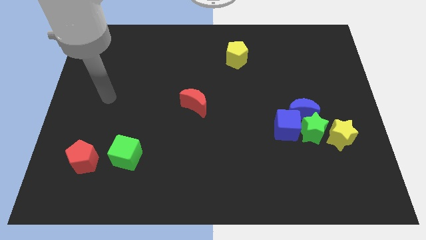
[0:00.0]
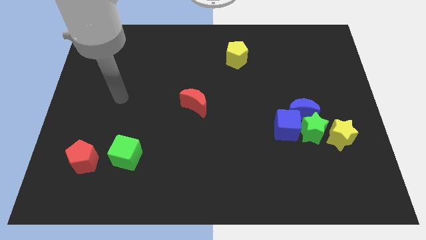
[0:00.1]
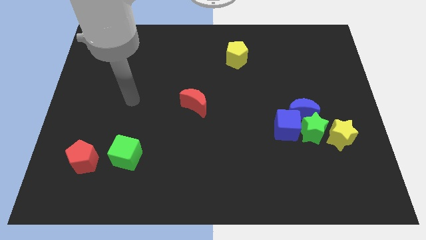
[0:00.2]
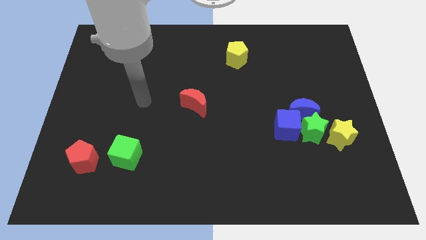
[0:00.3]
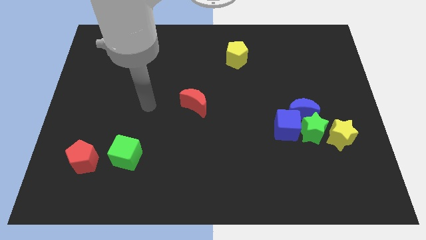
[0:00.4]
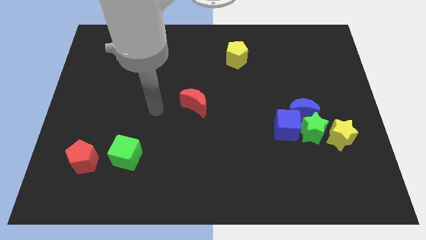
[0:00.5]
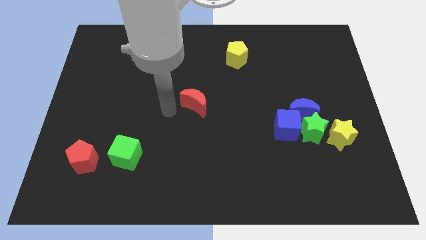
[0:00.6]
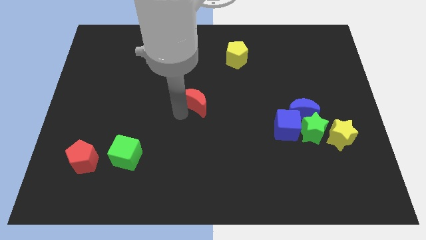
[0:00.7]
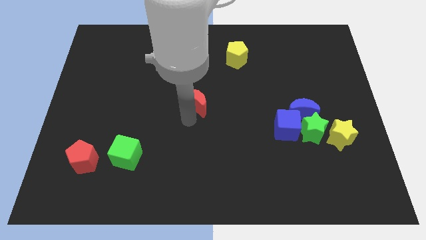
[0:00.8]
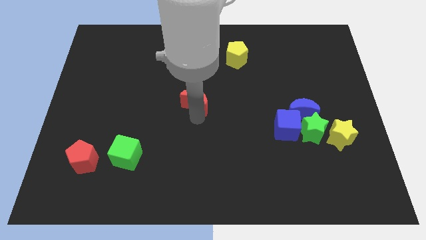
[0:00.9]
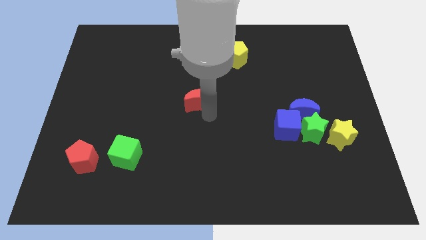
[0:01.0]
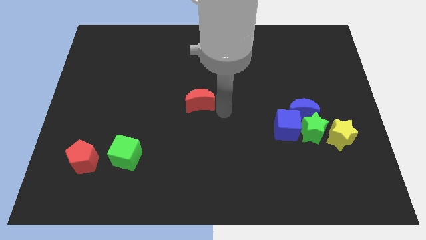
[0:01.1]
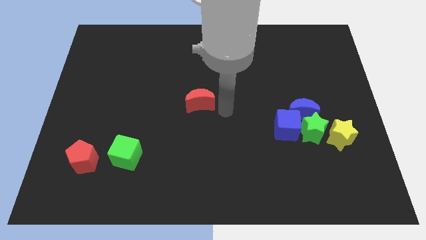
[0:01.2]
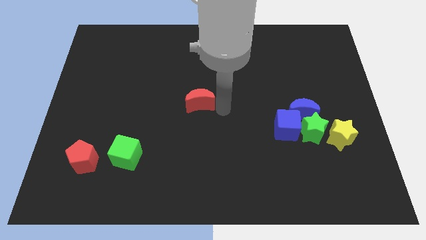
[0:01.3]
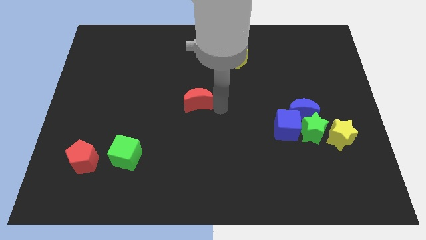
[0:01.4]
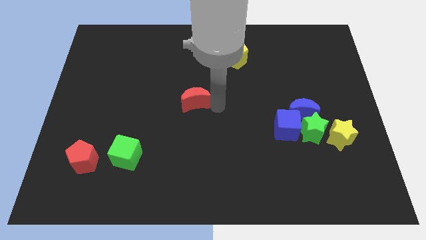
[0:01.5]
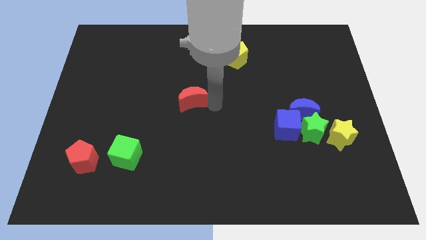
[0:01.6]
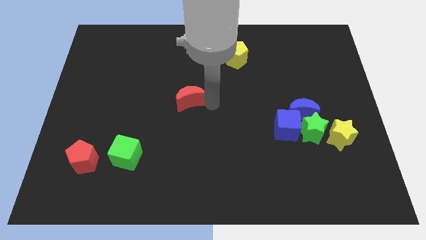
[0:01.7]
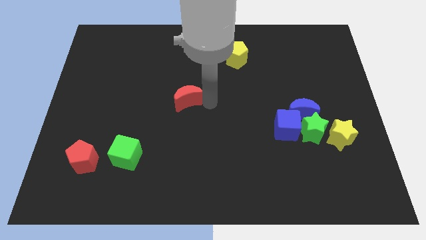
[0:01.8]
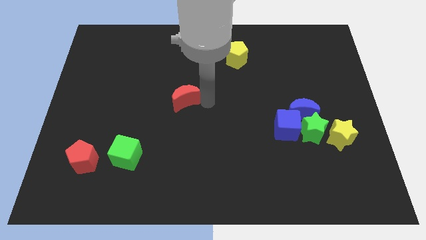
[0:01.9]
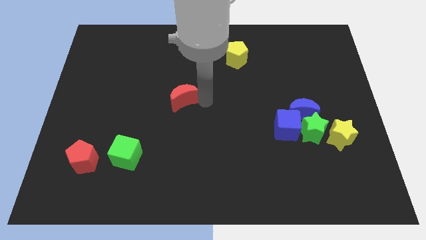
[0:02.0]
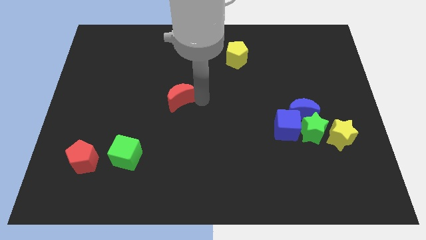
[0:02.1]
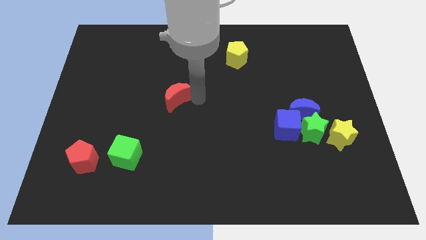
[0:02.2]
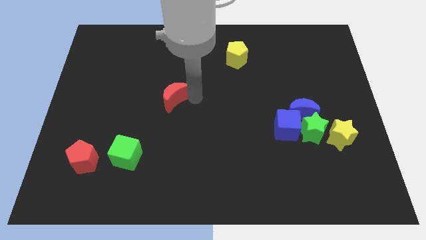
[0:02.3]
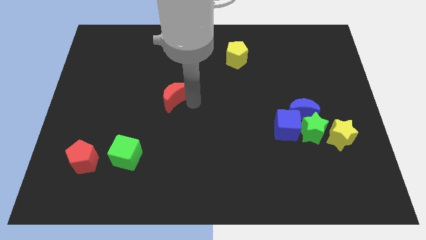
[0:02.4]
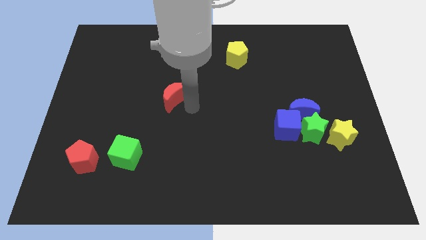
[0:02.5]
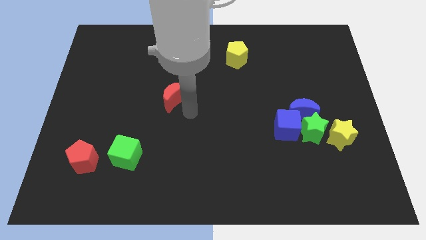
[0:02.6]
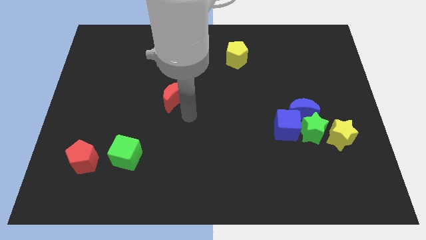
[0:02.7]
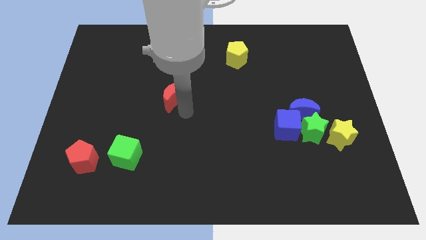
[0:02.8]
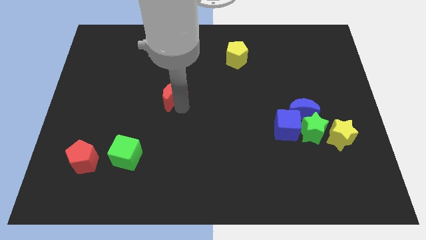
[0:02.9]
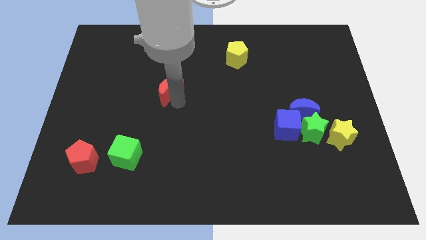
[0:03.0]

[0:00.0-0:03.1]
slightly slide the red moon upwards and then to the left

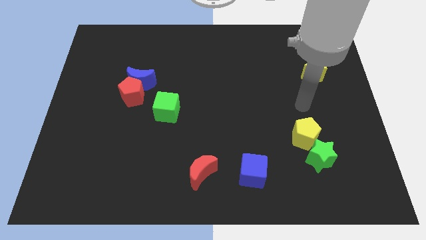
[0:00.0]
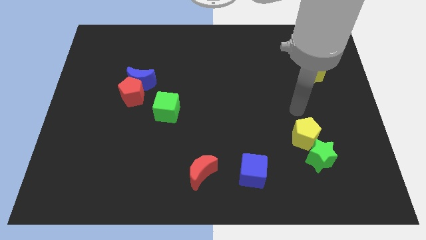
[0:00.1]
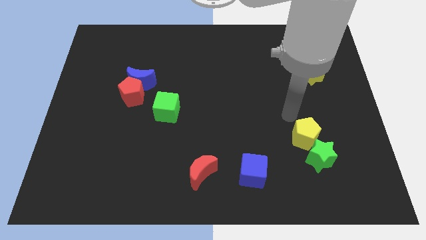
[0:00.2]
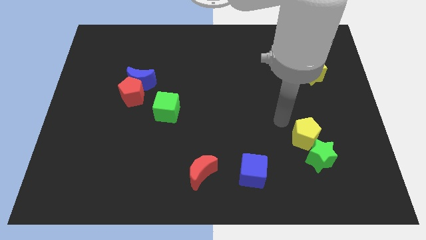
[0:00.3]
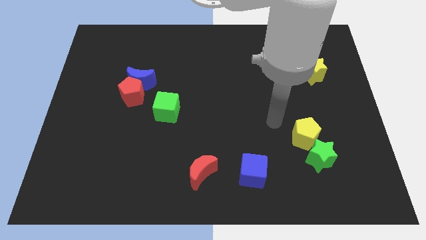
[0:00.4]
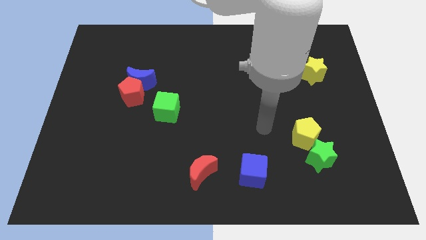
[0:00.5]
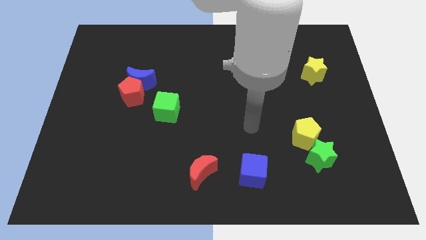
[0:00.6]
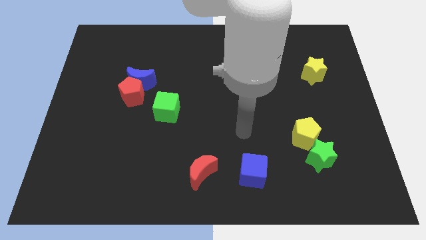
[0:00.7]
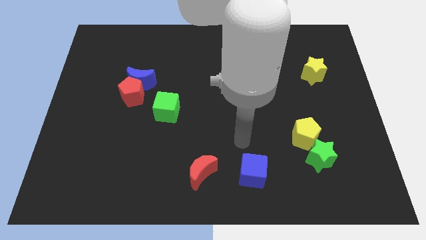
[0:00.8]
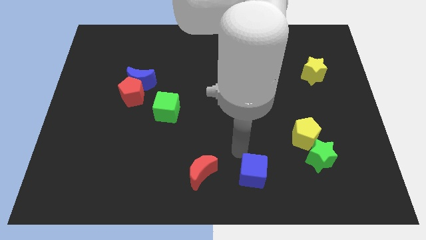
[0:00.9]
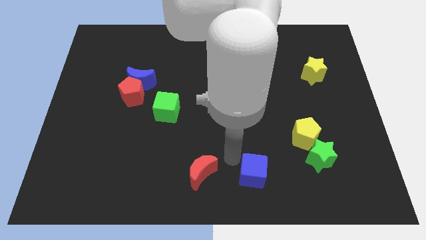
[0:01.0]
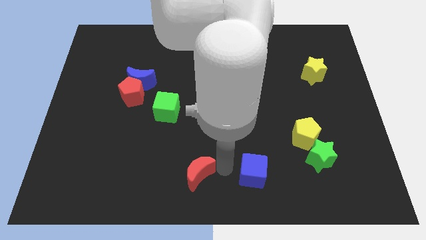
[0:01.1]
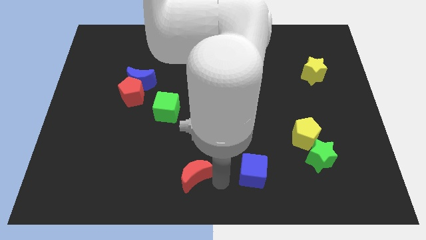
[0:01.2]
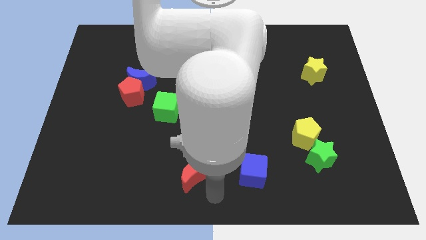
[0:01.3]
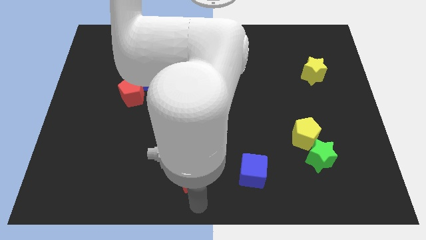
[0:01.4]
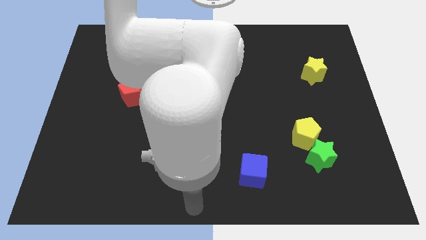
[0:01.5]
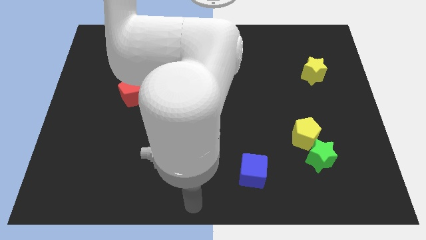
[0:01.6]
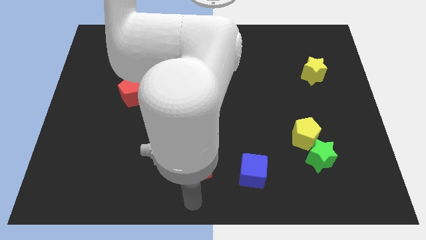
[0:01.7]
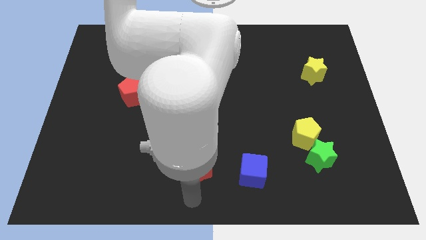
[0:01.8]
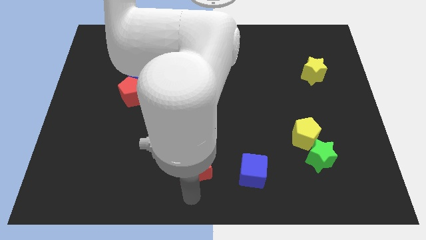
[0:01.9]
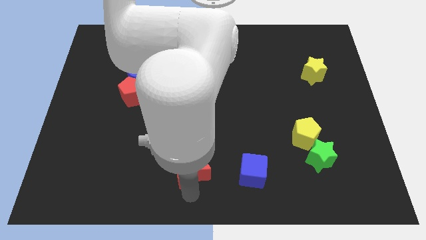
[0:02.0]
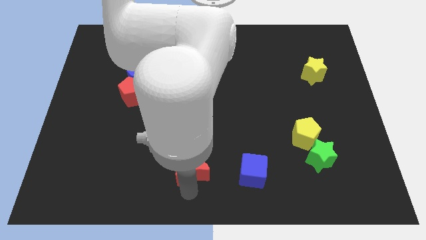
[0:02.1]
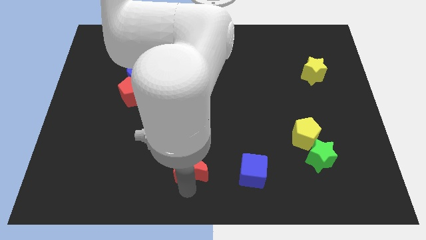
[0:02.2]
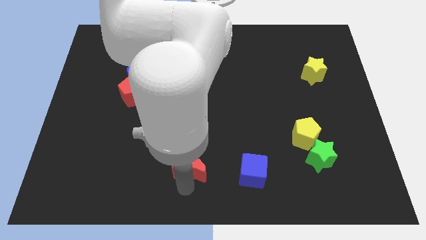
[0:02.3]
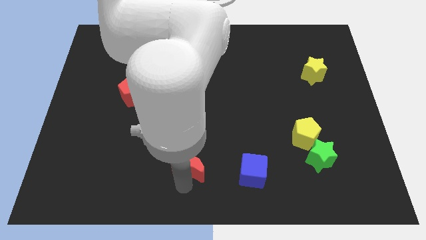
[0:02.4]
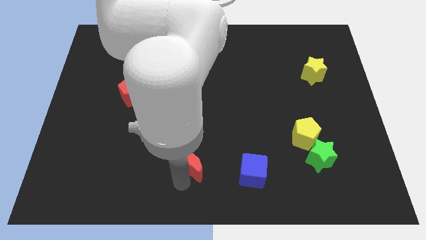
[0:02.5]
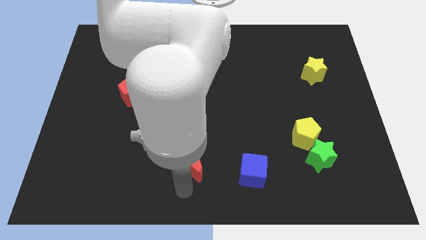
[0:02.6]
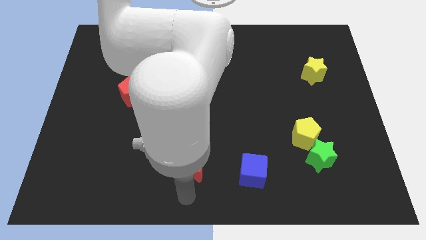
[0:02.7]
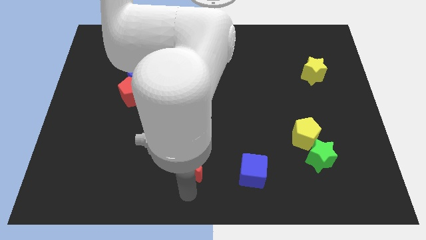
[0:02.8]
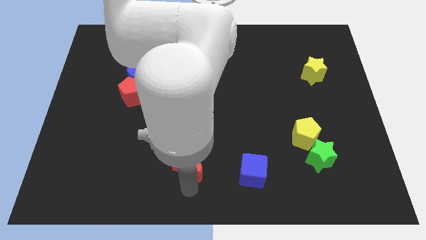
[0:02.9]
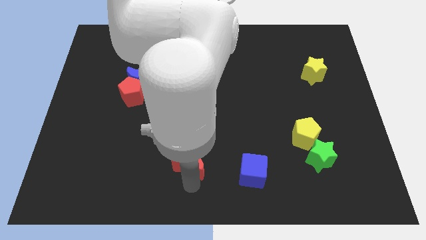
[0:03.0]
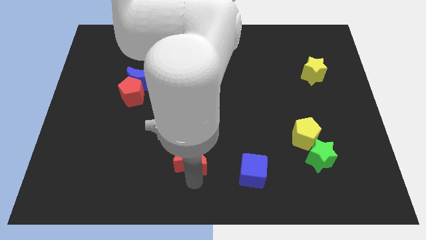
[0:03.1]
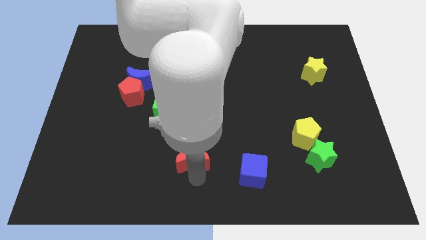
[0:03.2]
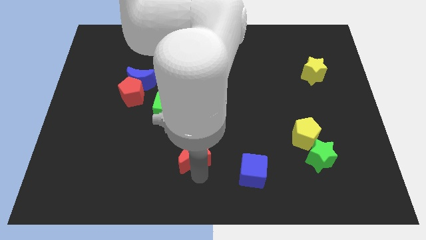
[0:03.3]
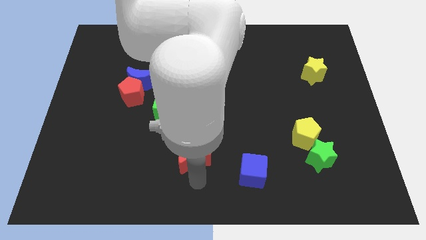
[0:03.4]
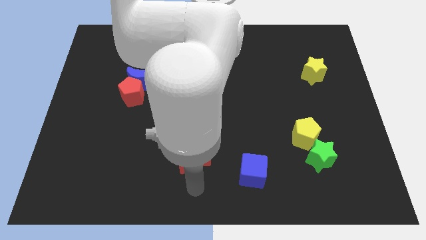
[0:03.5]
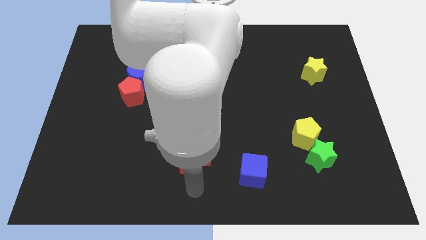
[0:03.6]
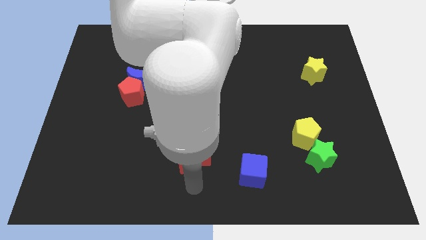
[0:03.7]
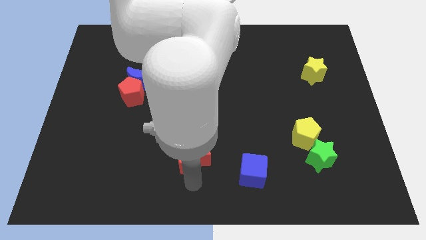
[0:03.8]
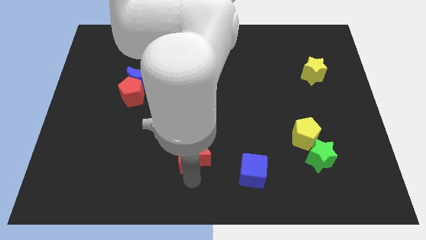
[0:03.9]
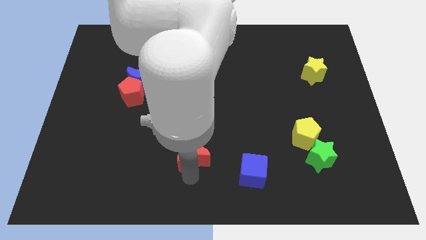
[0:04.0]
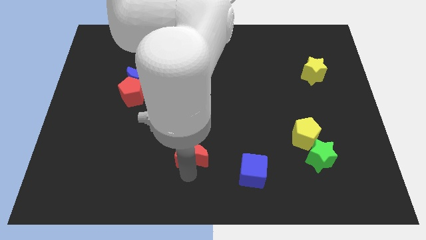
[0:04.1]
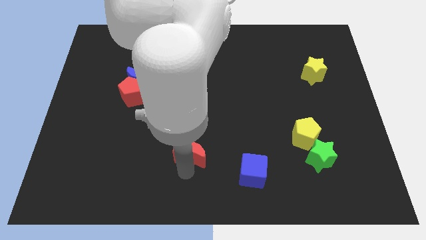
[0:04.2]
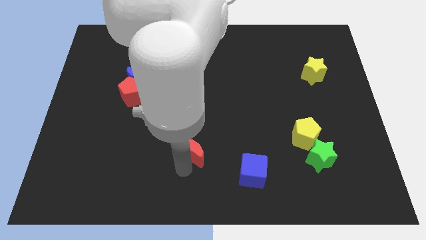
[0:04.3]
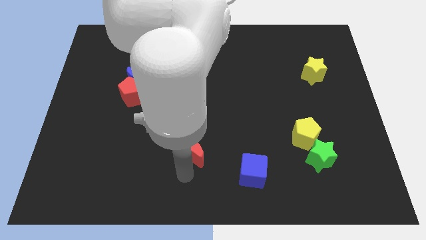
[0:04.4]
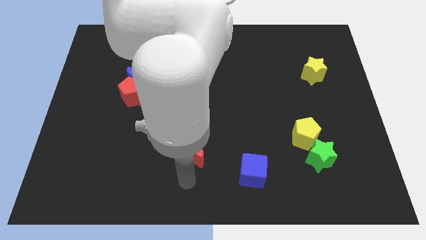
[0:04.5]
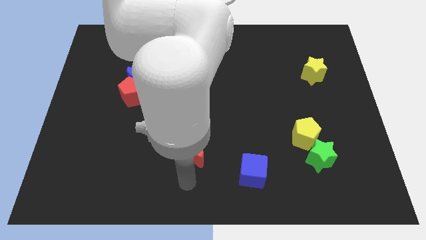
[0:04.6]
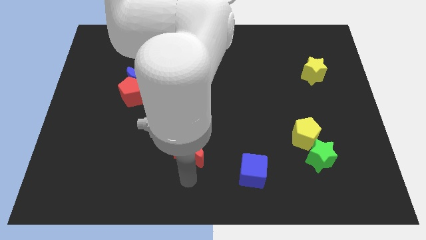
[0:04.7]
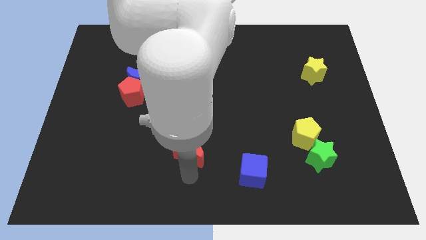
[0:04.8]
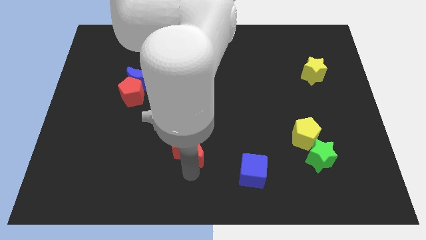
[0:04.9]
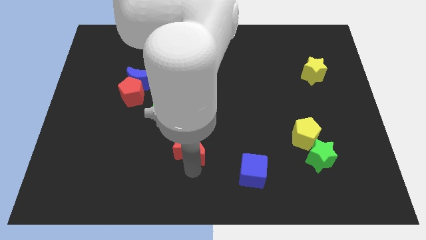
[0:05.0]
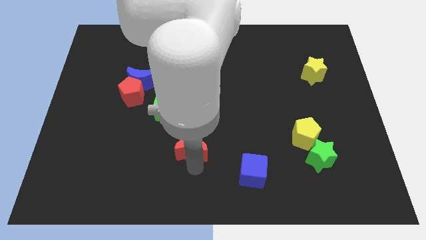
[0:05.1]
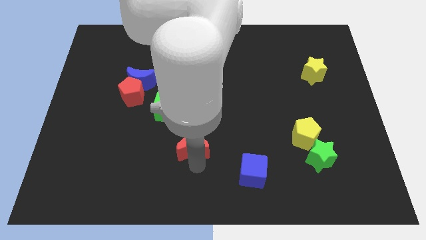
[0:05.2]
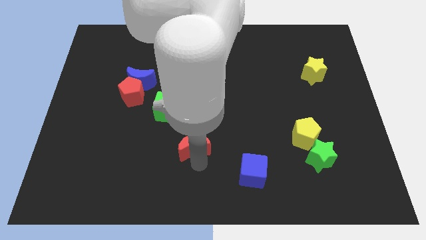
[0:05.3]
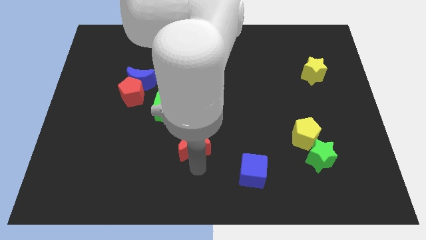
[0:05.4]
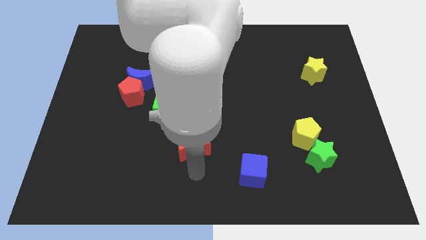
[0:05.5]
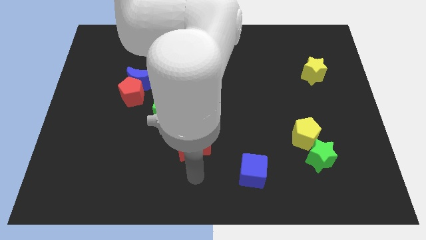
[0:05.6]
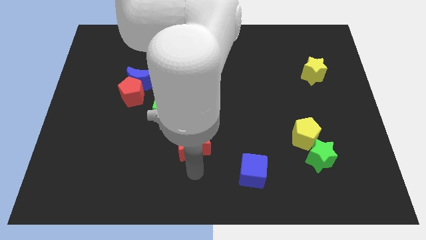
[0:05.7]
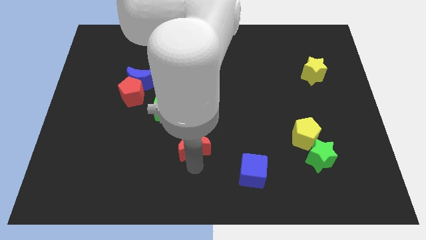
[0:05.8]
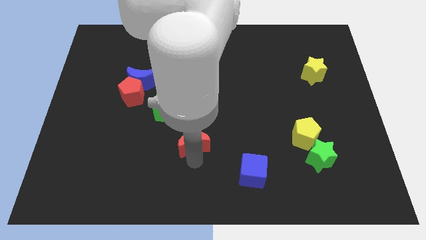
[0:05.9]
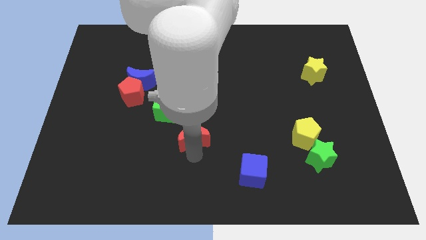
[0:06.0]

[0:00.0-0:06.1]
slide the red moon a bit upwards
